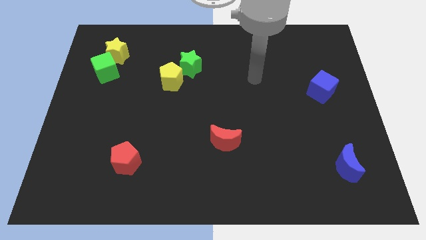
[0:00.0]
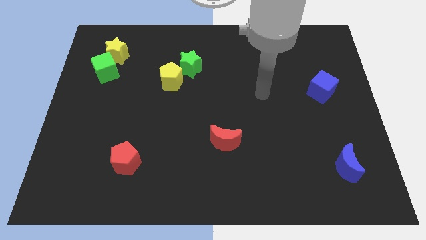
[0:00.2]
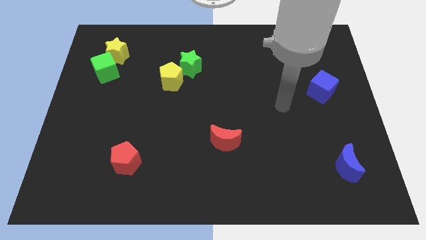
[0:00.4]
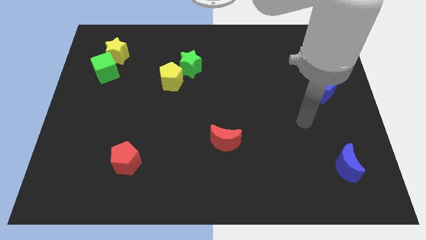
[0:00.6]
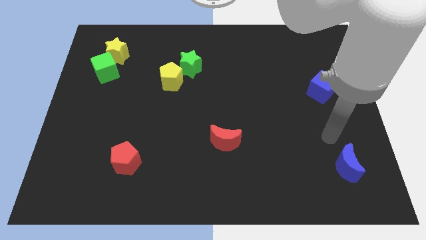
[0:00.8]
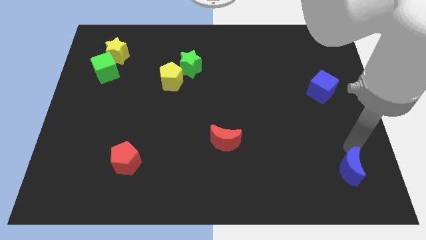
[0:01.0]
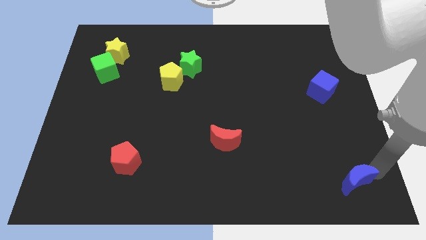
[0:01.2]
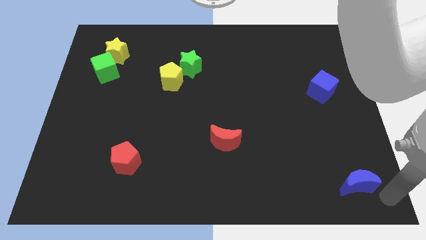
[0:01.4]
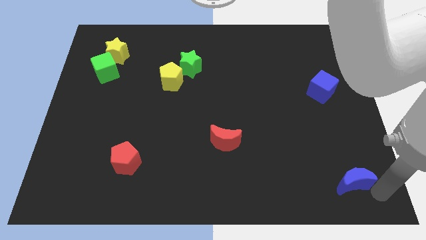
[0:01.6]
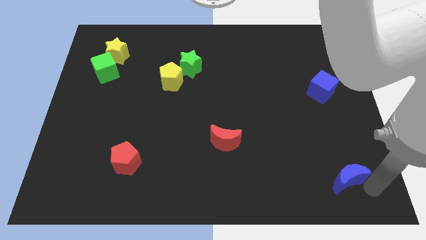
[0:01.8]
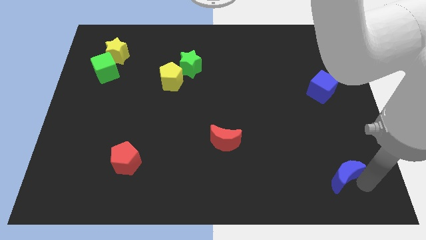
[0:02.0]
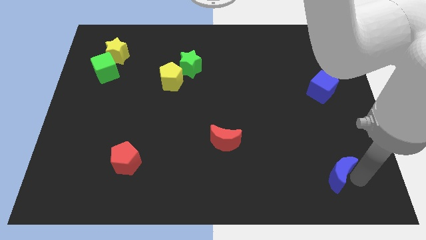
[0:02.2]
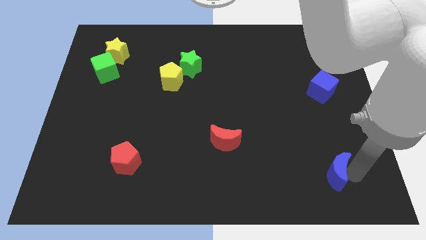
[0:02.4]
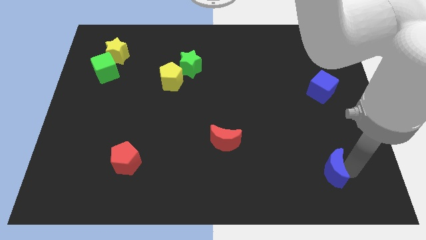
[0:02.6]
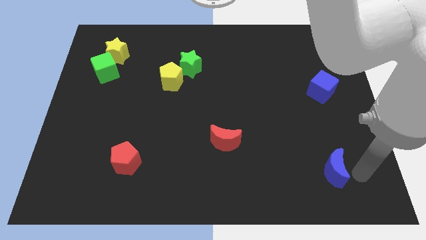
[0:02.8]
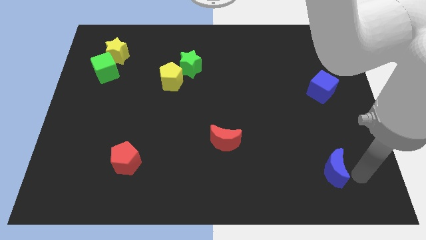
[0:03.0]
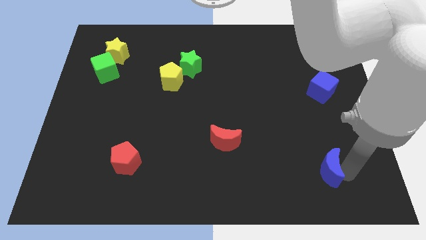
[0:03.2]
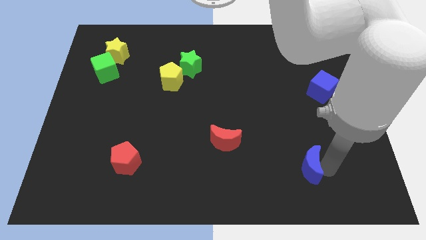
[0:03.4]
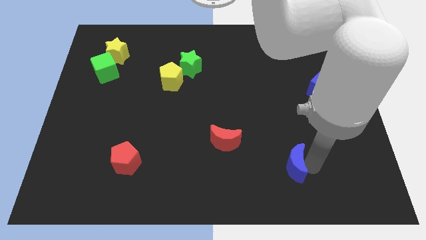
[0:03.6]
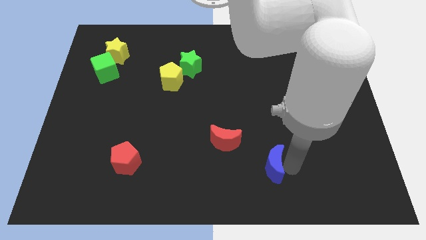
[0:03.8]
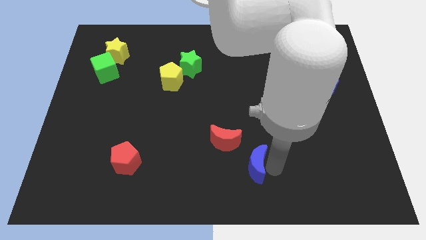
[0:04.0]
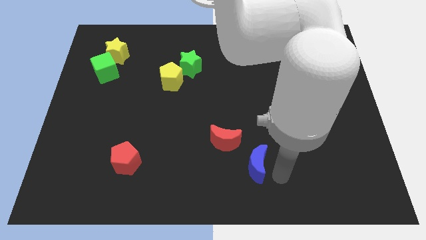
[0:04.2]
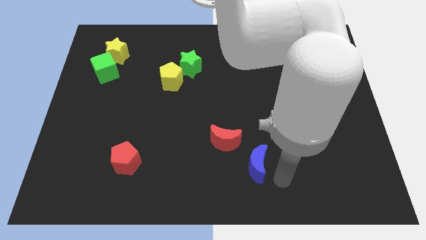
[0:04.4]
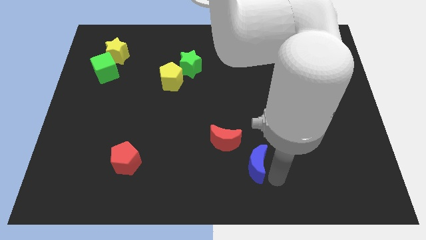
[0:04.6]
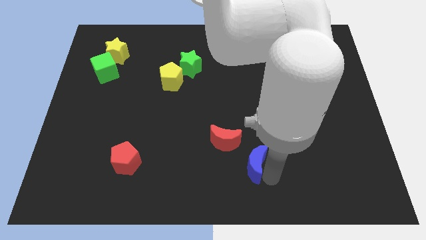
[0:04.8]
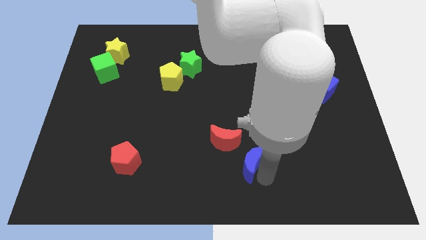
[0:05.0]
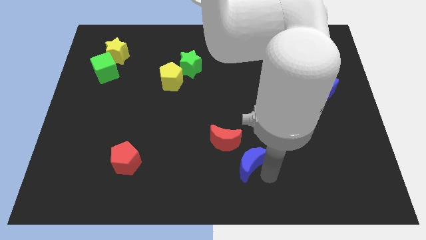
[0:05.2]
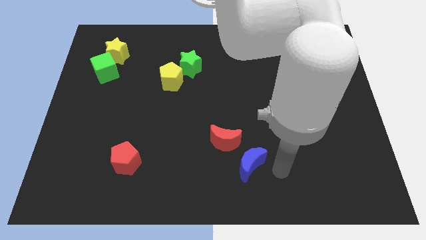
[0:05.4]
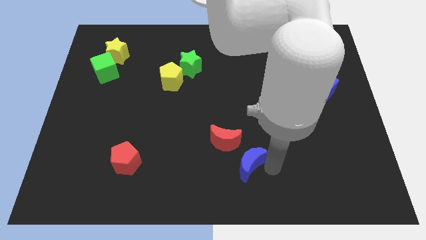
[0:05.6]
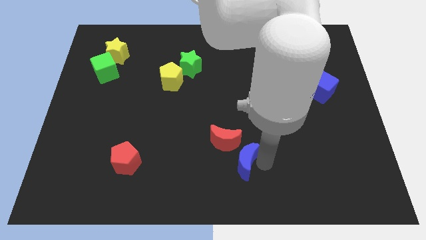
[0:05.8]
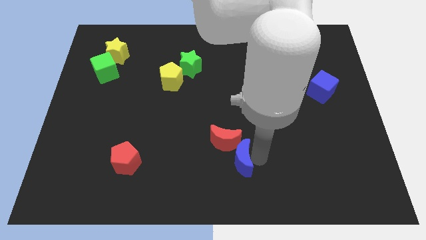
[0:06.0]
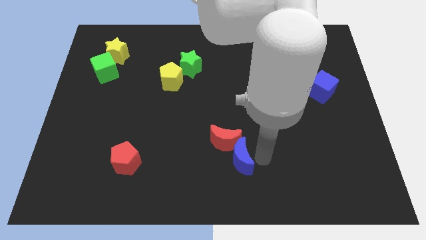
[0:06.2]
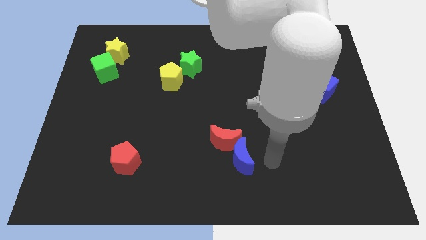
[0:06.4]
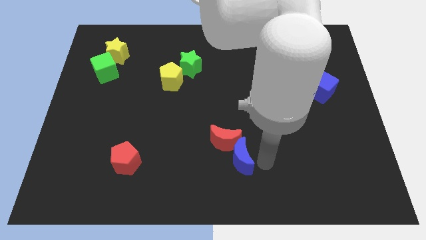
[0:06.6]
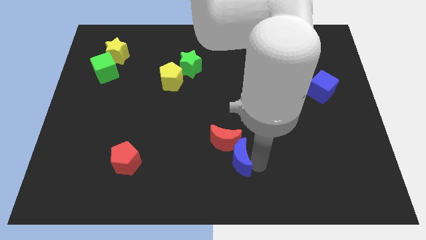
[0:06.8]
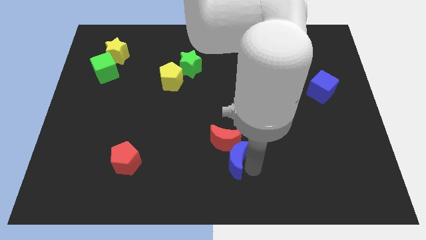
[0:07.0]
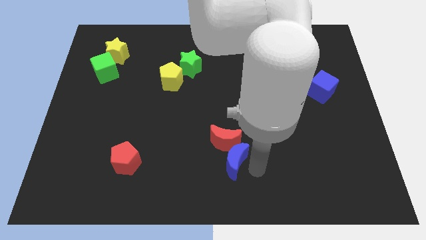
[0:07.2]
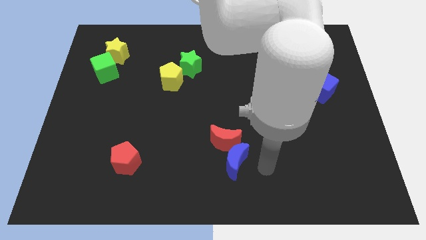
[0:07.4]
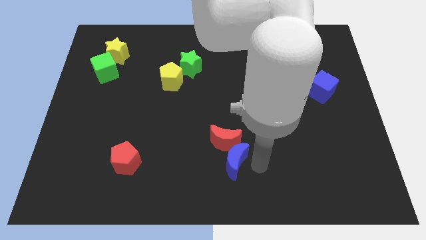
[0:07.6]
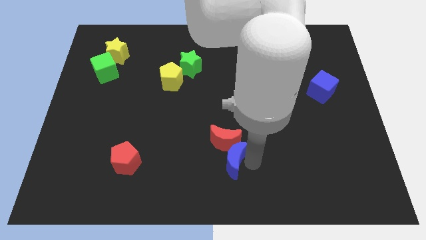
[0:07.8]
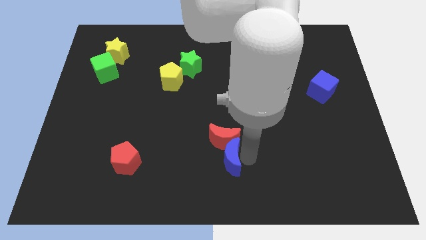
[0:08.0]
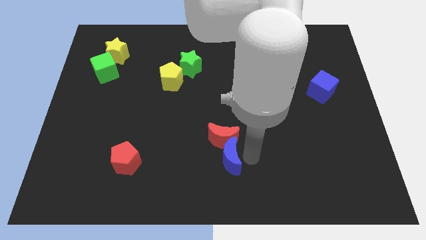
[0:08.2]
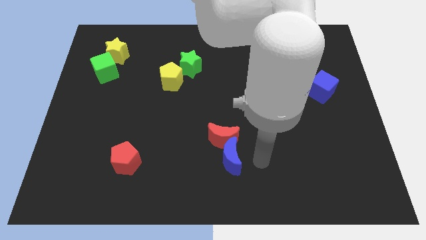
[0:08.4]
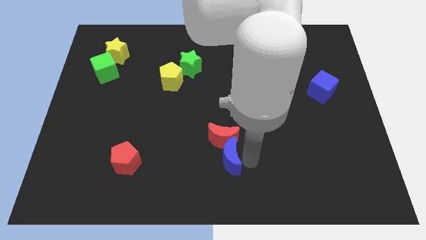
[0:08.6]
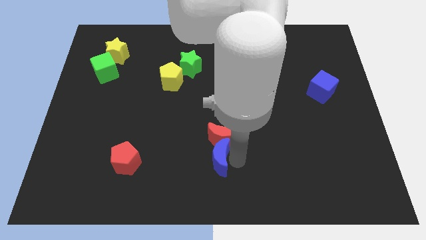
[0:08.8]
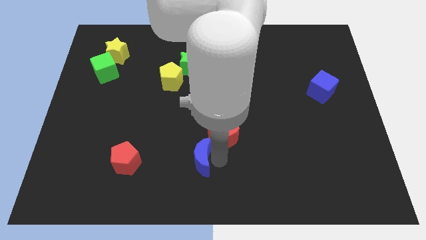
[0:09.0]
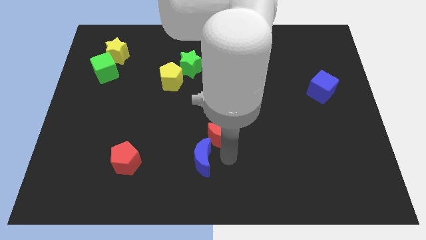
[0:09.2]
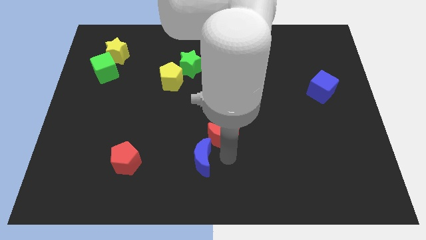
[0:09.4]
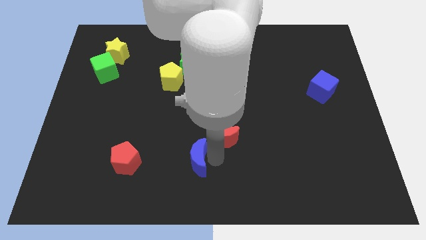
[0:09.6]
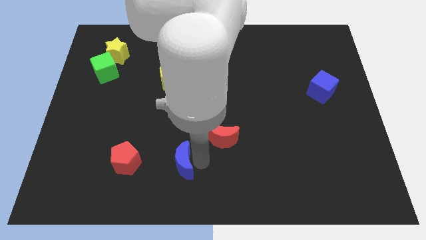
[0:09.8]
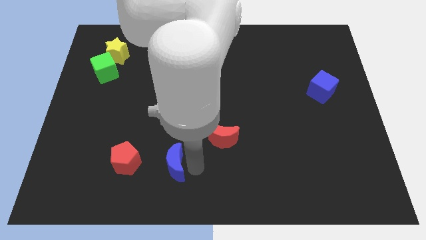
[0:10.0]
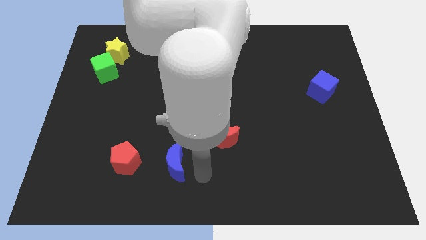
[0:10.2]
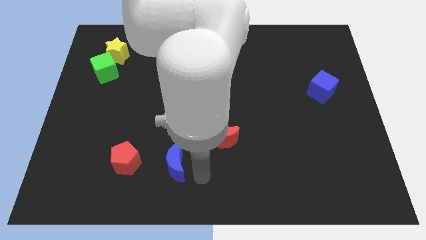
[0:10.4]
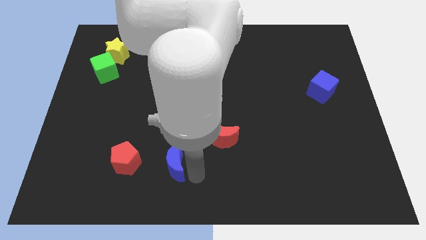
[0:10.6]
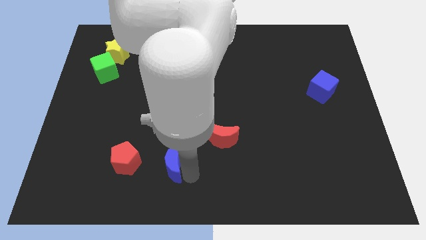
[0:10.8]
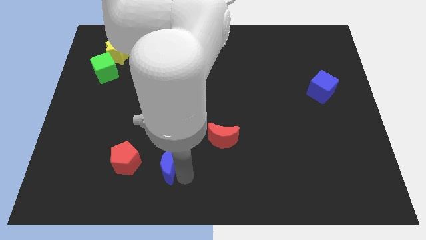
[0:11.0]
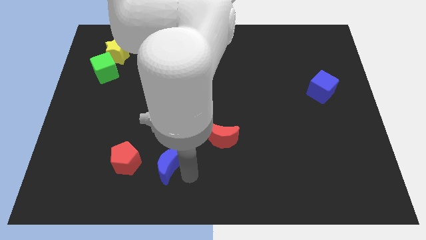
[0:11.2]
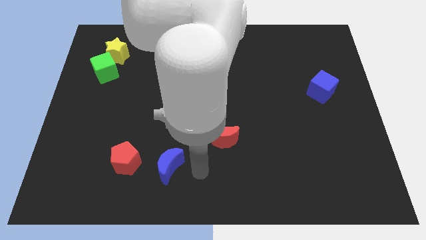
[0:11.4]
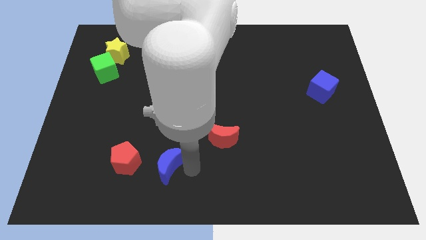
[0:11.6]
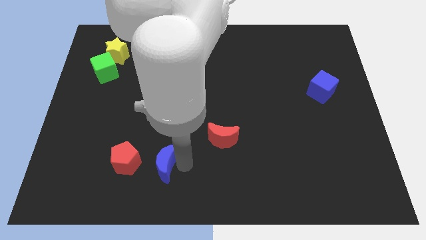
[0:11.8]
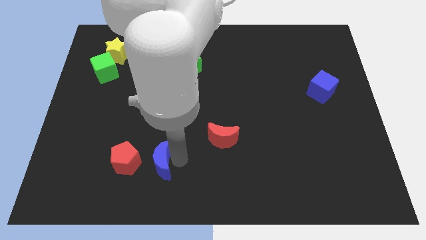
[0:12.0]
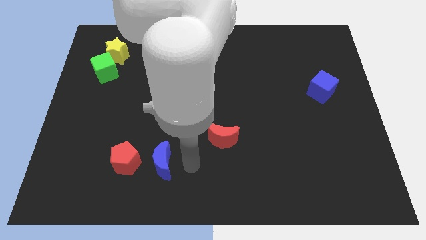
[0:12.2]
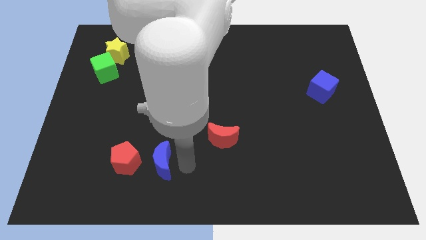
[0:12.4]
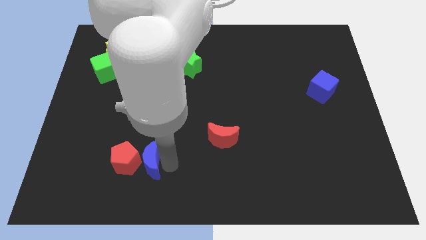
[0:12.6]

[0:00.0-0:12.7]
move the blue moon close to the red pentagon

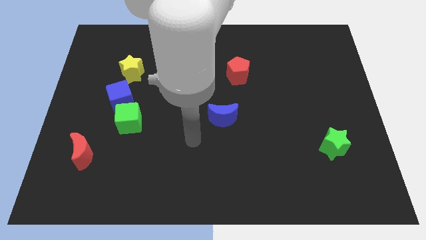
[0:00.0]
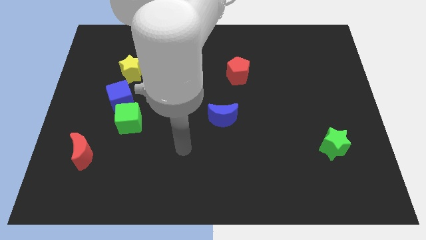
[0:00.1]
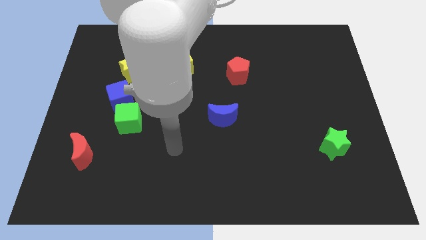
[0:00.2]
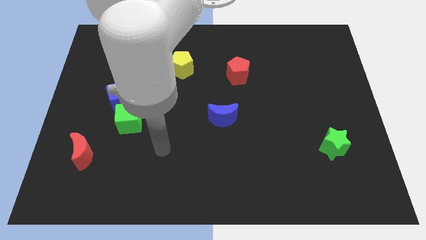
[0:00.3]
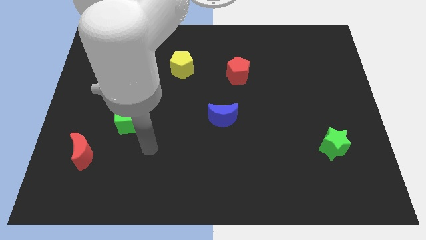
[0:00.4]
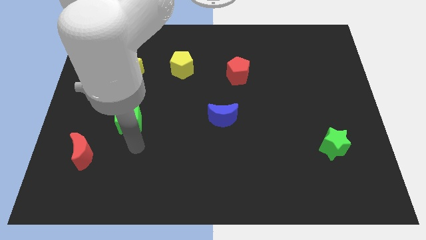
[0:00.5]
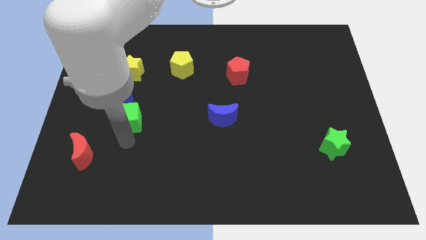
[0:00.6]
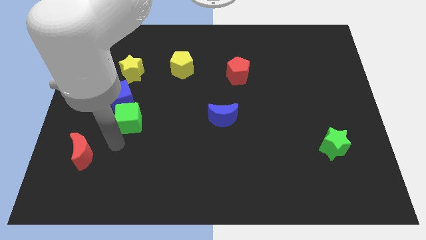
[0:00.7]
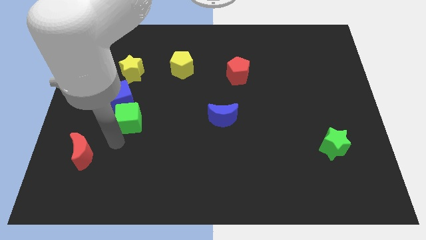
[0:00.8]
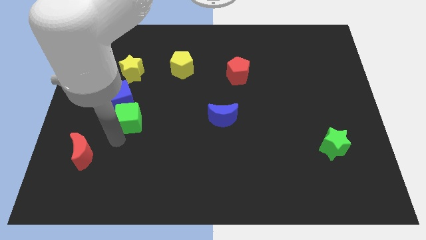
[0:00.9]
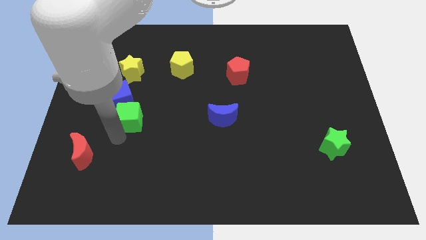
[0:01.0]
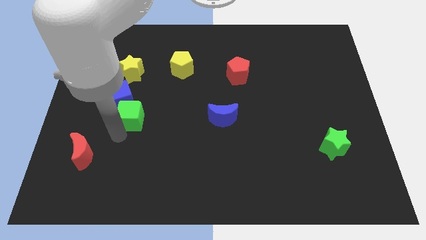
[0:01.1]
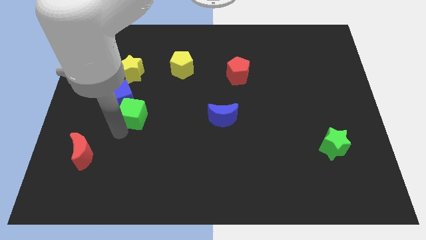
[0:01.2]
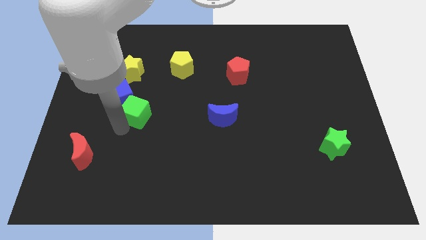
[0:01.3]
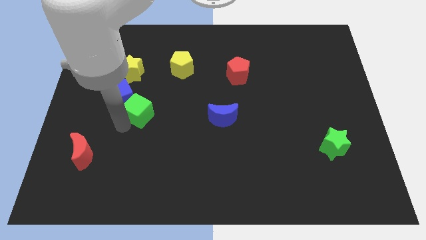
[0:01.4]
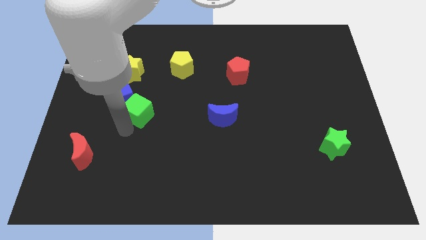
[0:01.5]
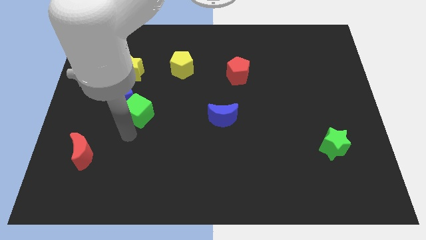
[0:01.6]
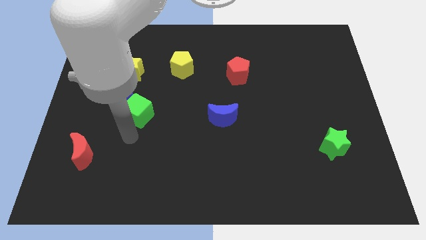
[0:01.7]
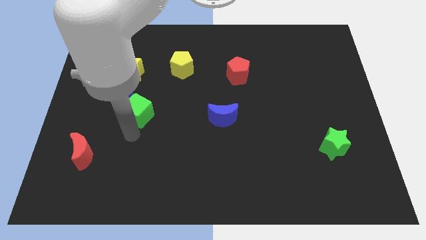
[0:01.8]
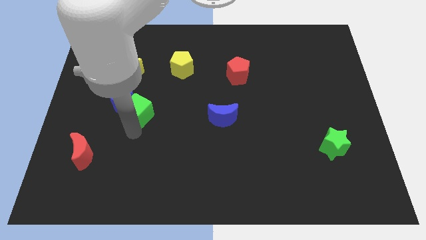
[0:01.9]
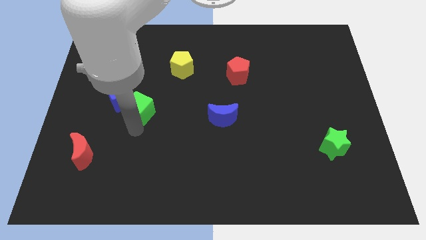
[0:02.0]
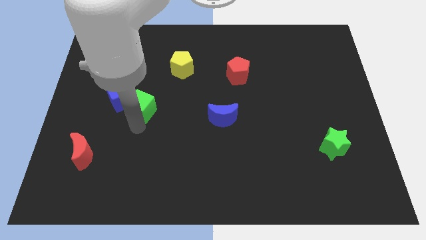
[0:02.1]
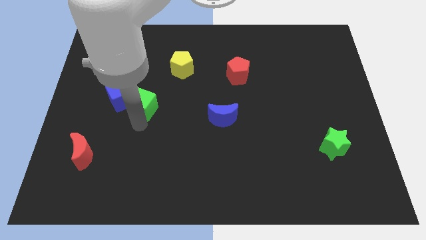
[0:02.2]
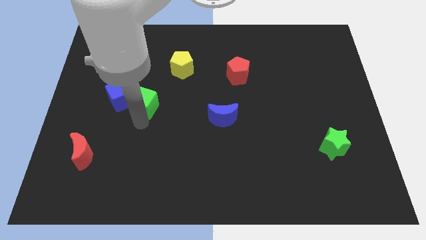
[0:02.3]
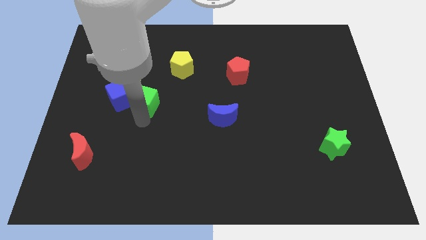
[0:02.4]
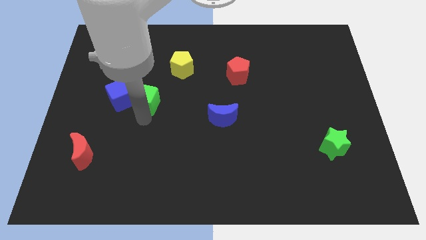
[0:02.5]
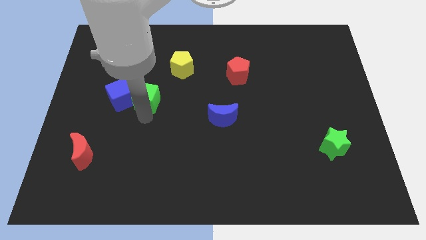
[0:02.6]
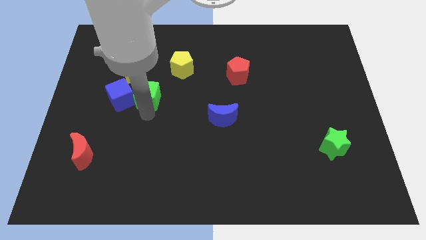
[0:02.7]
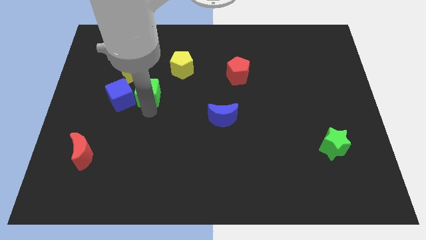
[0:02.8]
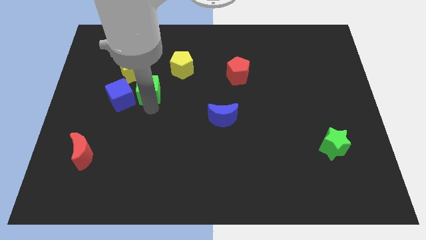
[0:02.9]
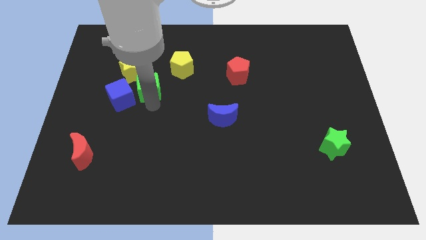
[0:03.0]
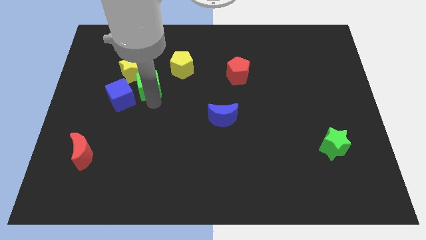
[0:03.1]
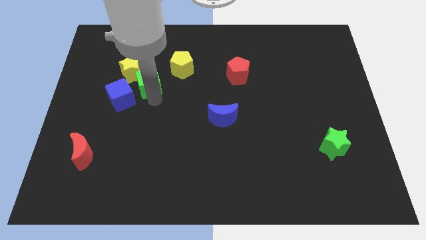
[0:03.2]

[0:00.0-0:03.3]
put the green cube towards the yellow star
